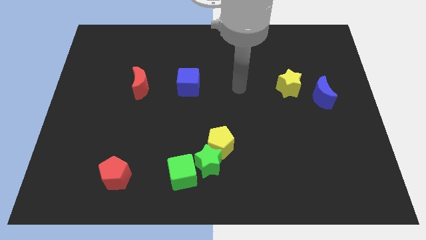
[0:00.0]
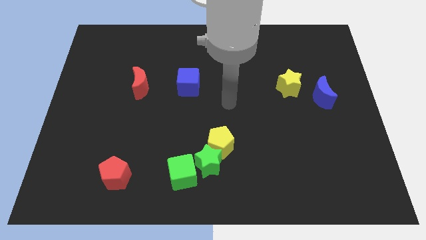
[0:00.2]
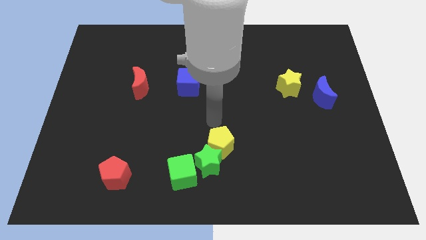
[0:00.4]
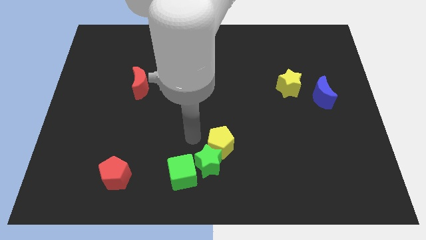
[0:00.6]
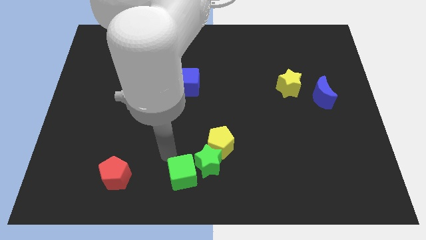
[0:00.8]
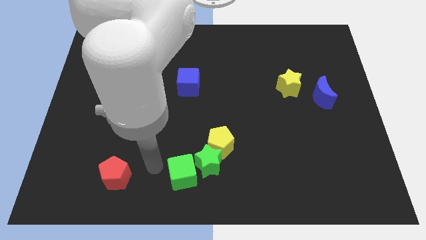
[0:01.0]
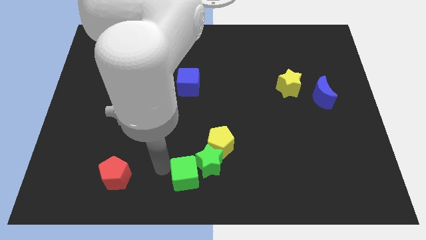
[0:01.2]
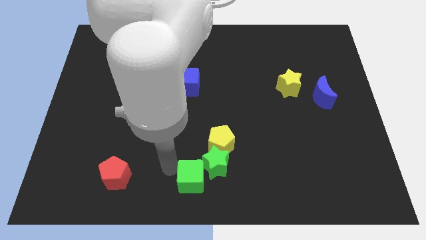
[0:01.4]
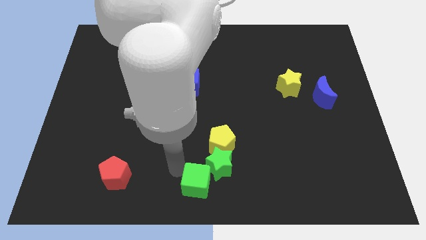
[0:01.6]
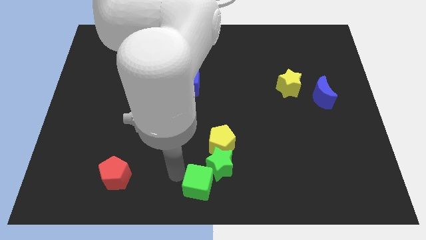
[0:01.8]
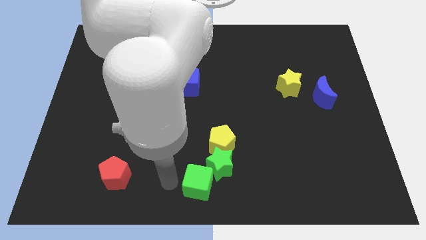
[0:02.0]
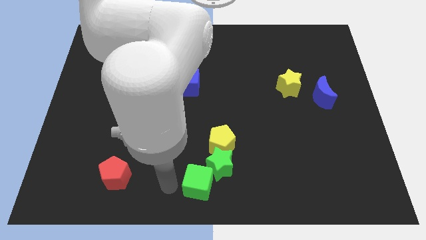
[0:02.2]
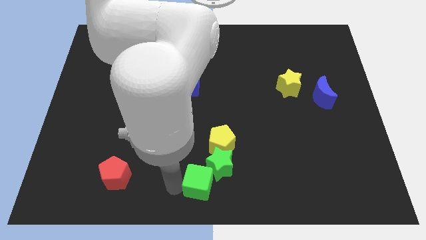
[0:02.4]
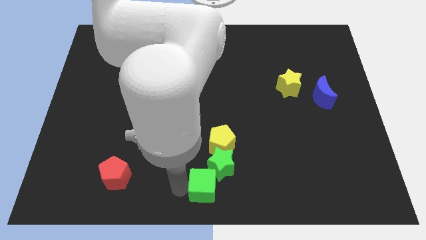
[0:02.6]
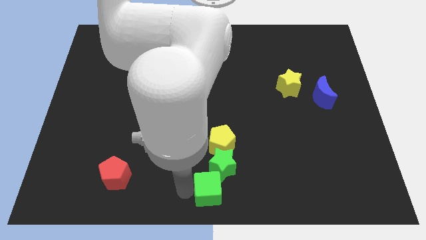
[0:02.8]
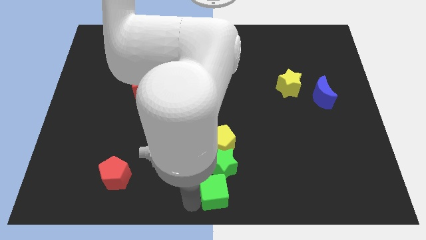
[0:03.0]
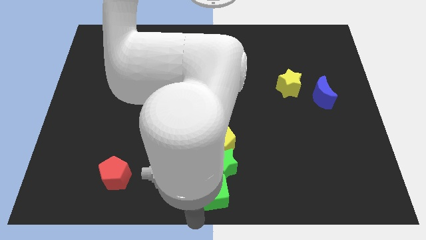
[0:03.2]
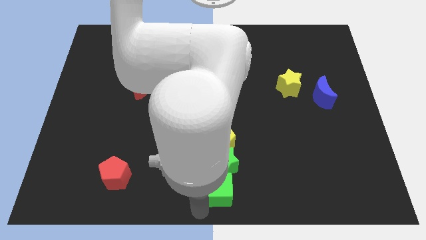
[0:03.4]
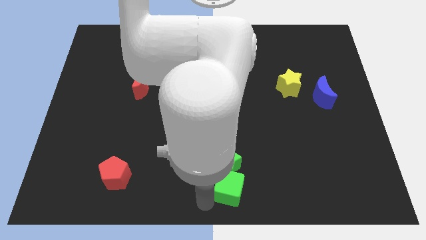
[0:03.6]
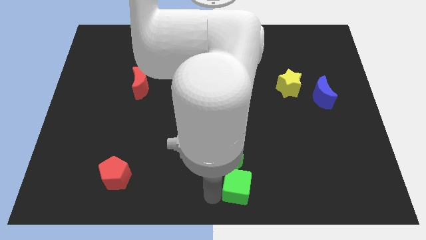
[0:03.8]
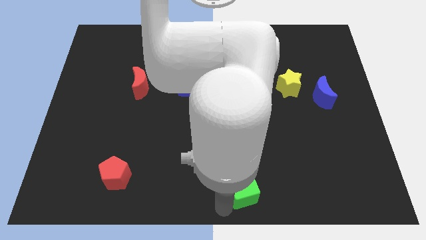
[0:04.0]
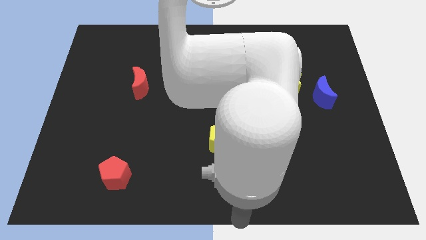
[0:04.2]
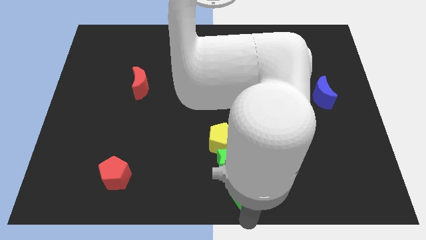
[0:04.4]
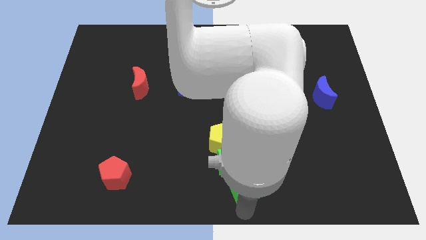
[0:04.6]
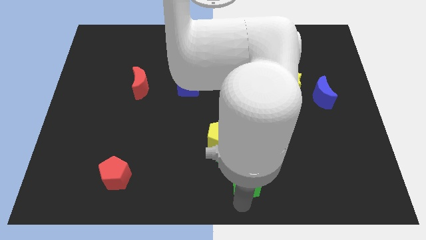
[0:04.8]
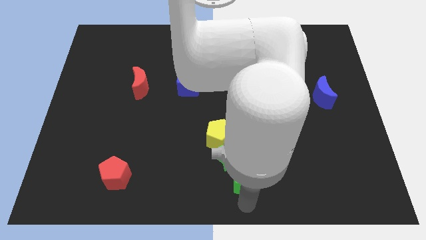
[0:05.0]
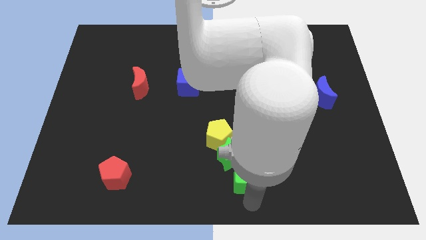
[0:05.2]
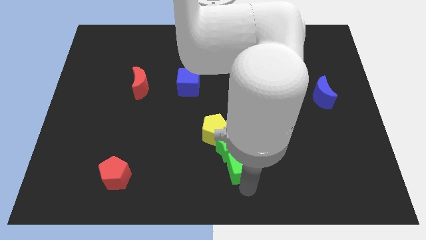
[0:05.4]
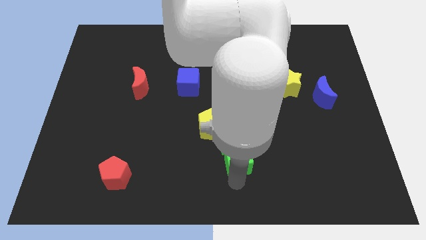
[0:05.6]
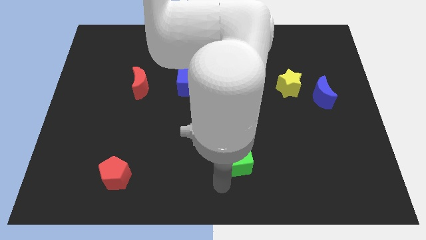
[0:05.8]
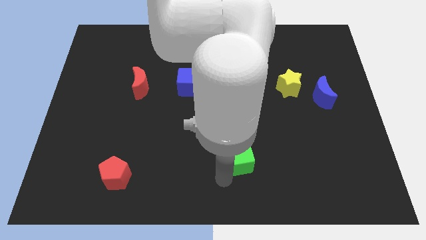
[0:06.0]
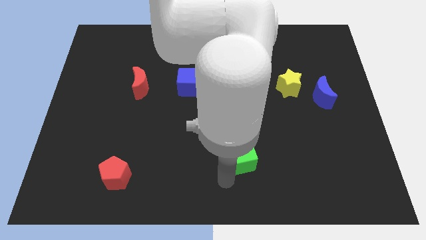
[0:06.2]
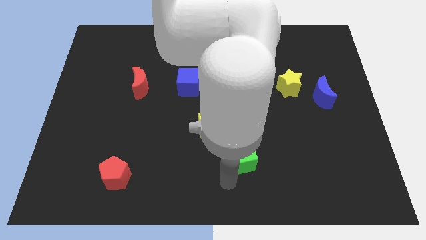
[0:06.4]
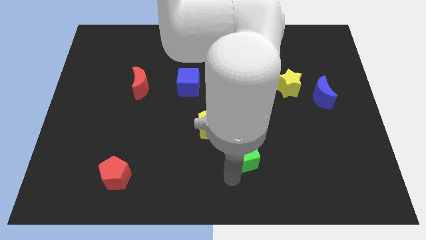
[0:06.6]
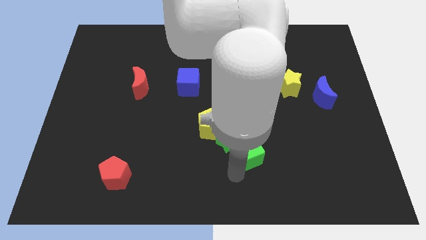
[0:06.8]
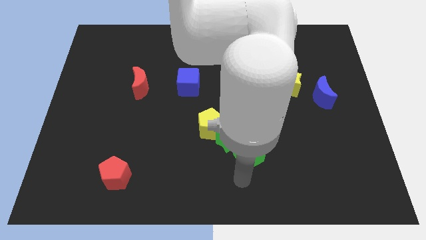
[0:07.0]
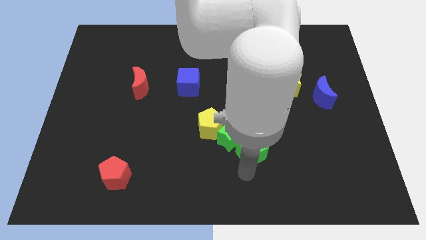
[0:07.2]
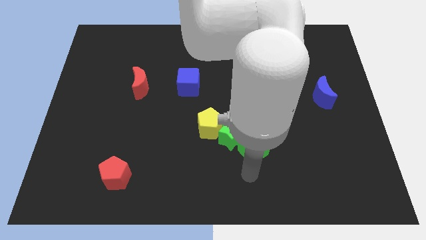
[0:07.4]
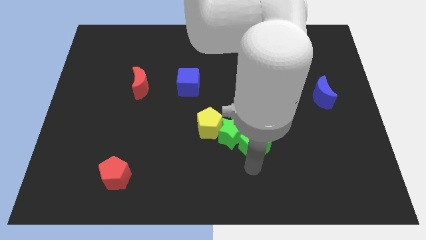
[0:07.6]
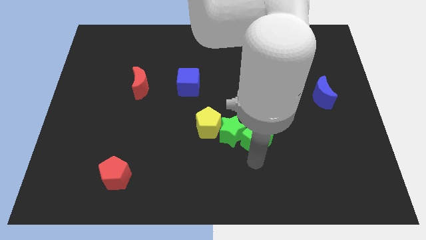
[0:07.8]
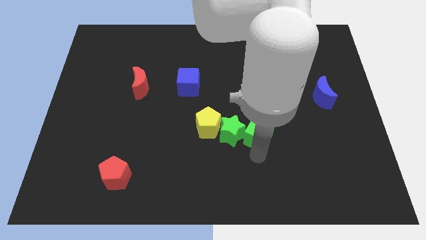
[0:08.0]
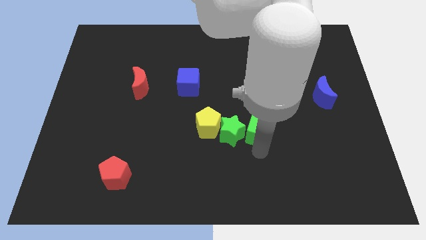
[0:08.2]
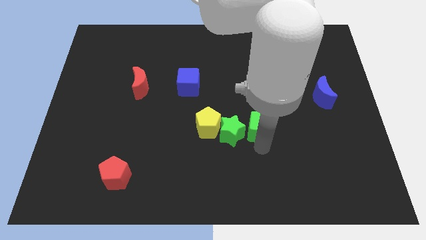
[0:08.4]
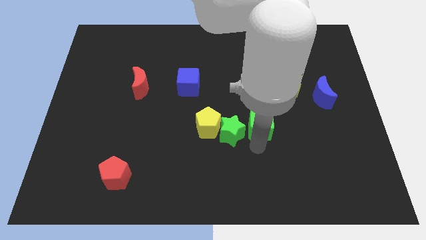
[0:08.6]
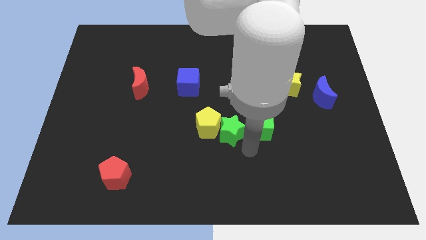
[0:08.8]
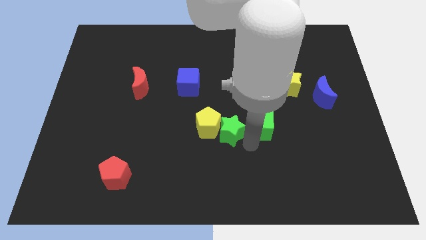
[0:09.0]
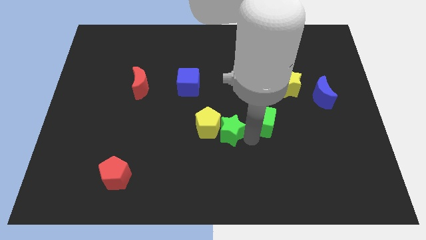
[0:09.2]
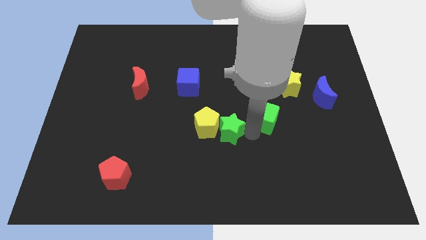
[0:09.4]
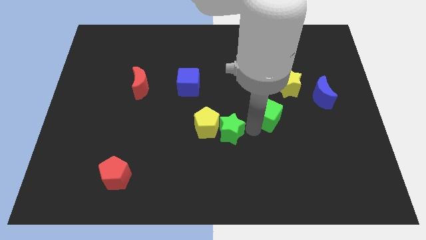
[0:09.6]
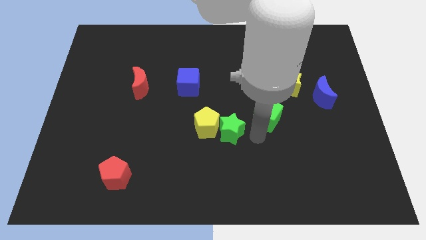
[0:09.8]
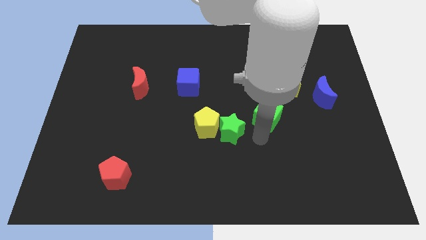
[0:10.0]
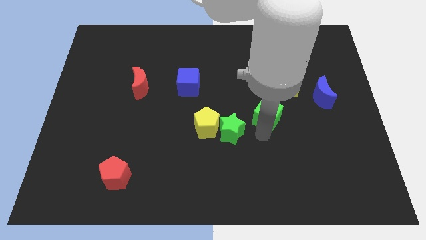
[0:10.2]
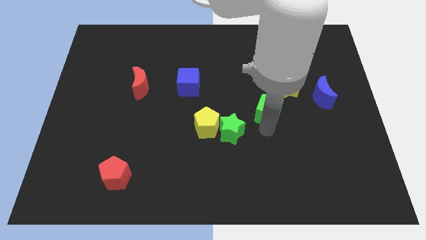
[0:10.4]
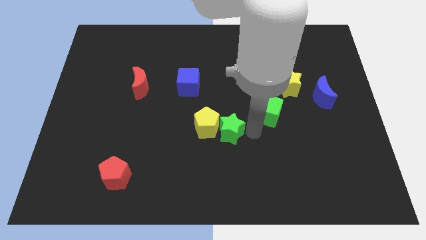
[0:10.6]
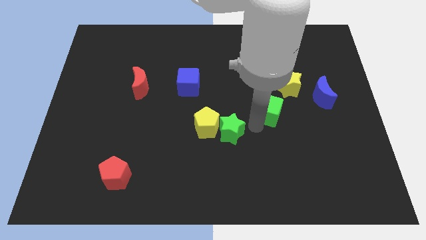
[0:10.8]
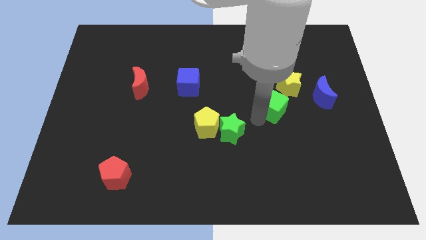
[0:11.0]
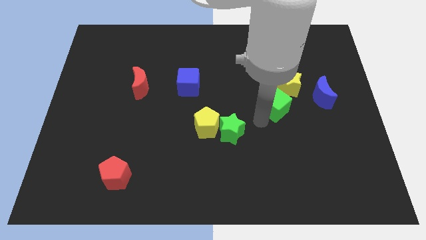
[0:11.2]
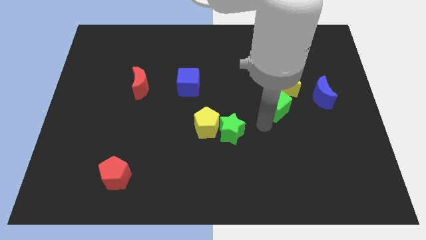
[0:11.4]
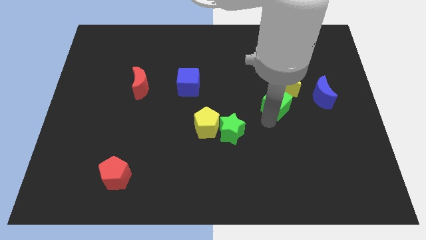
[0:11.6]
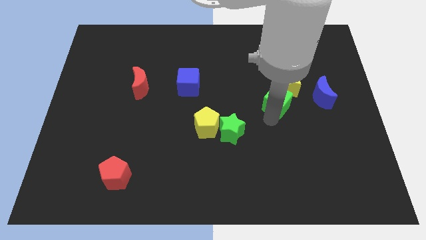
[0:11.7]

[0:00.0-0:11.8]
move the green cube next to the yellow star

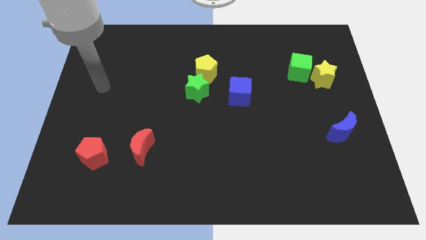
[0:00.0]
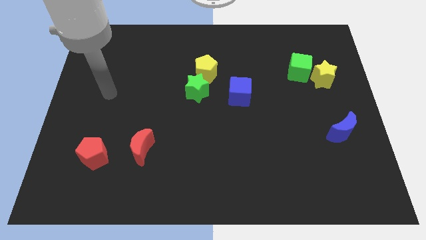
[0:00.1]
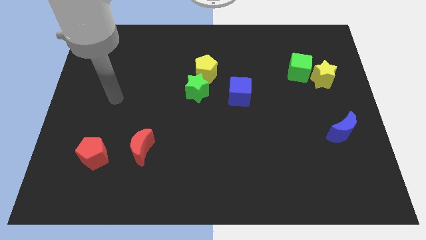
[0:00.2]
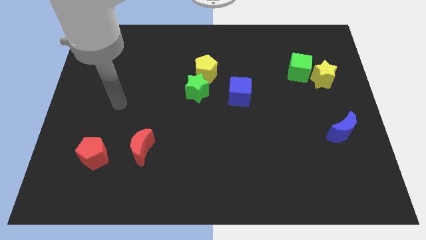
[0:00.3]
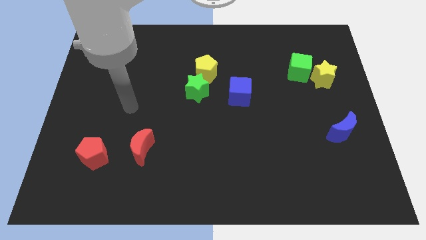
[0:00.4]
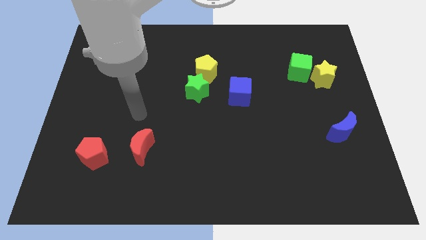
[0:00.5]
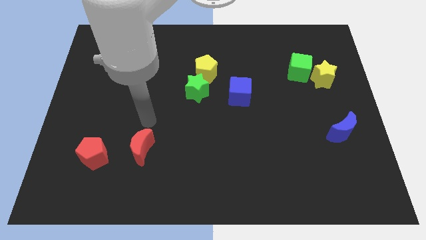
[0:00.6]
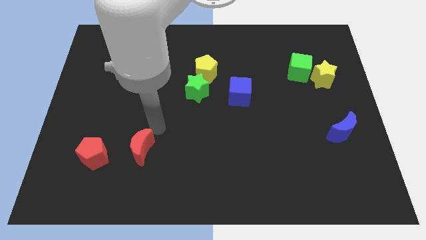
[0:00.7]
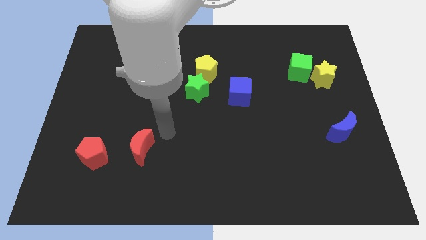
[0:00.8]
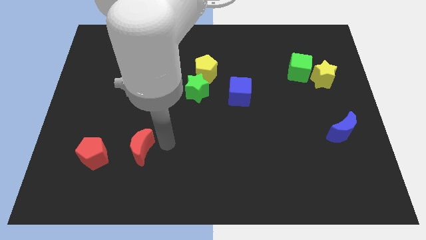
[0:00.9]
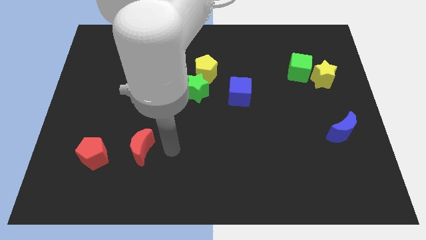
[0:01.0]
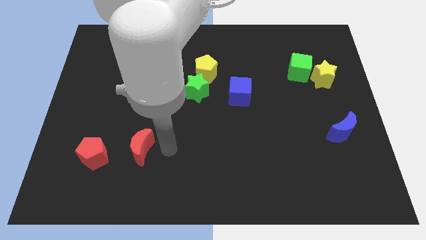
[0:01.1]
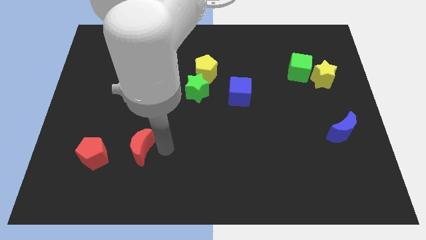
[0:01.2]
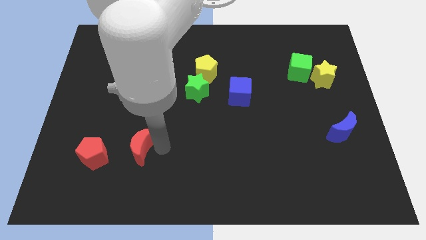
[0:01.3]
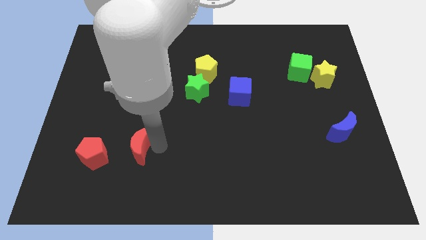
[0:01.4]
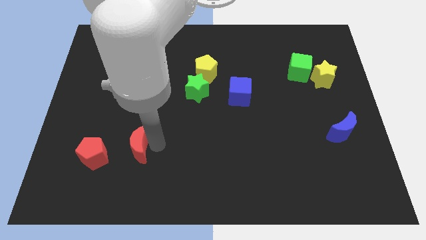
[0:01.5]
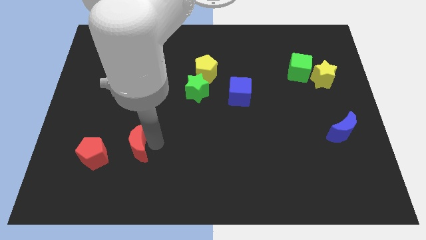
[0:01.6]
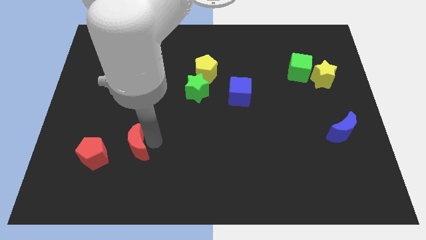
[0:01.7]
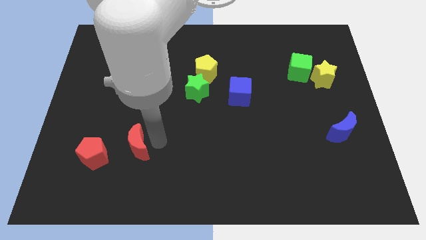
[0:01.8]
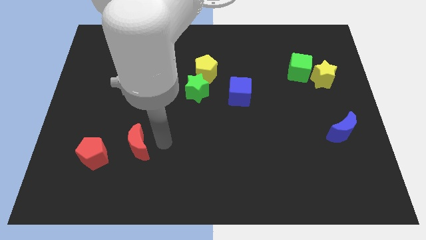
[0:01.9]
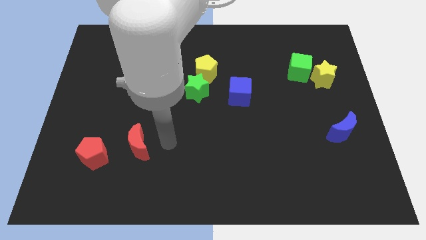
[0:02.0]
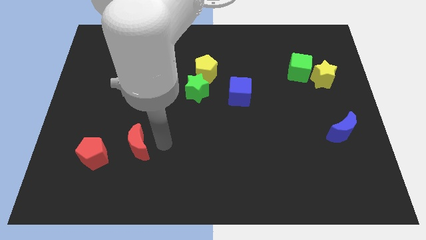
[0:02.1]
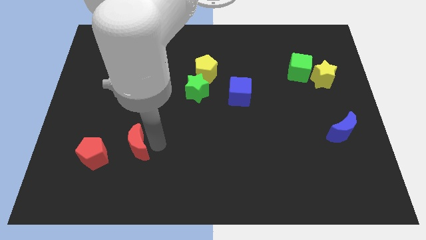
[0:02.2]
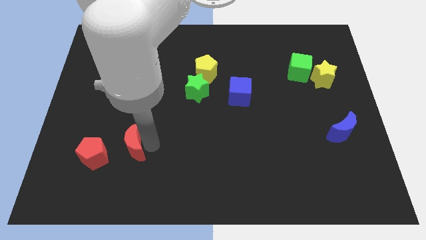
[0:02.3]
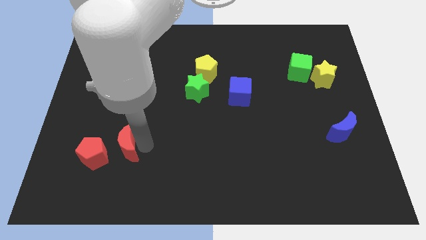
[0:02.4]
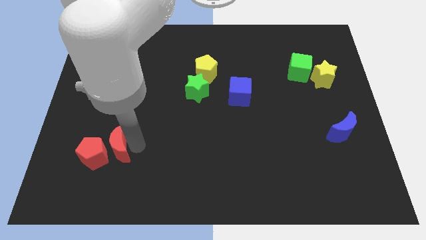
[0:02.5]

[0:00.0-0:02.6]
move the red moon to the red pentagon
